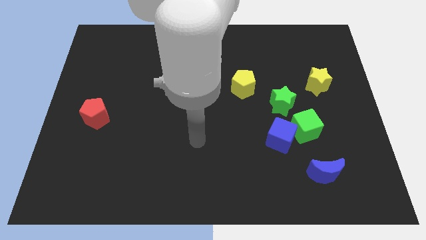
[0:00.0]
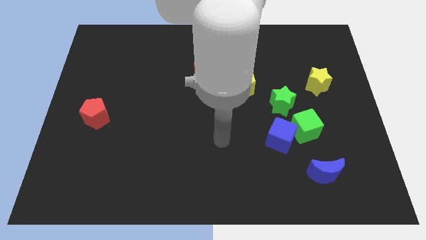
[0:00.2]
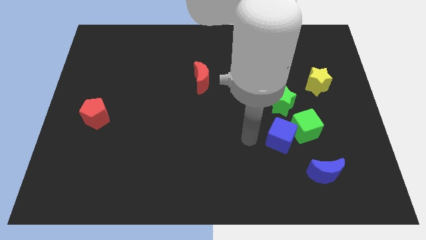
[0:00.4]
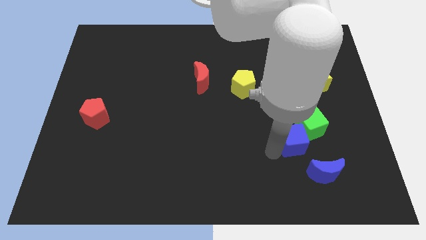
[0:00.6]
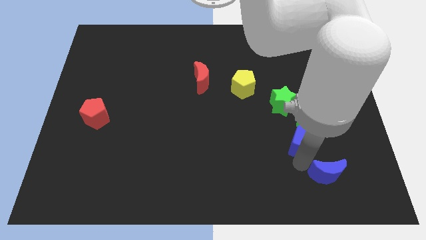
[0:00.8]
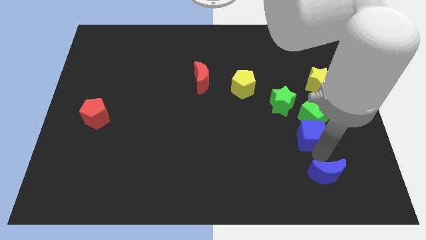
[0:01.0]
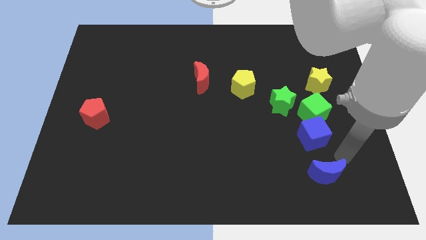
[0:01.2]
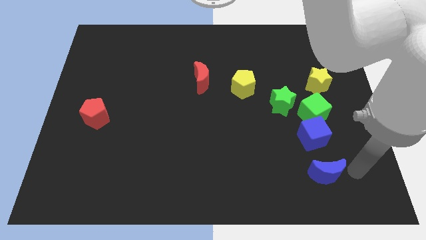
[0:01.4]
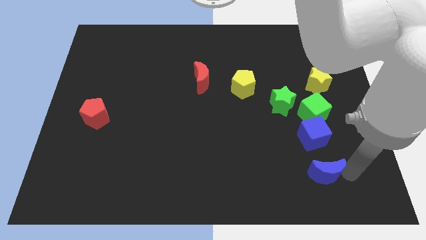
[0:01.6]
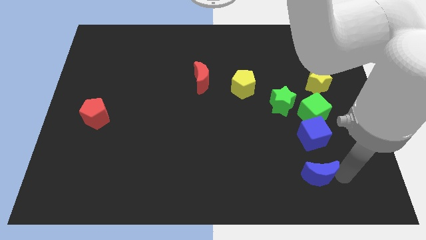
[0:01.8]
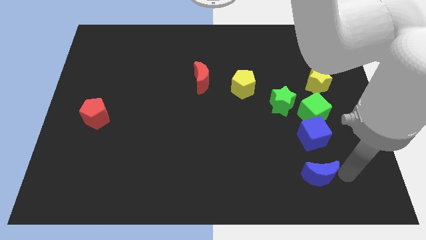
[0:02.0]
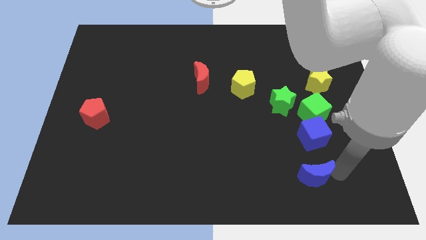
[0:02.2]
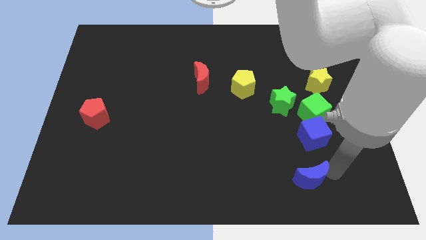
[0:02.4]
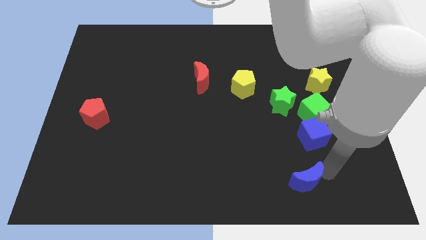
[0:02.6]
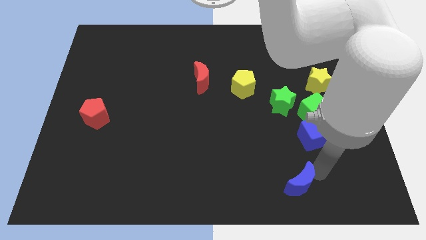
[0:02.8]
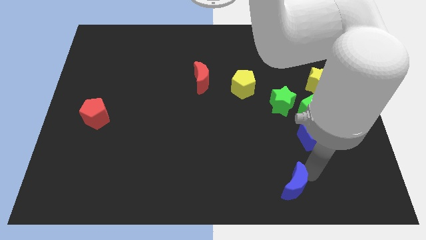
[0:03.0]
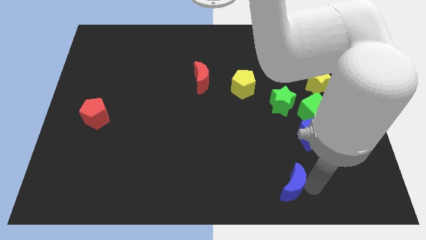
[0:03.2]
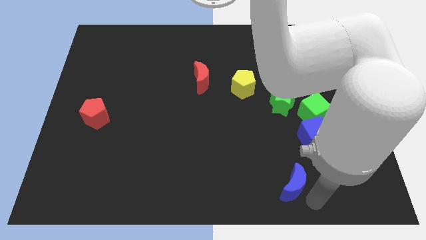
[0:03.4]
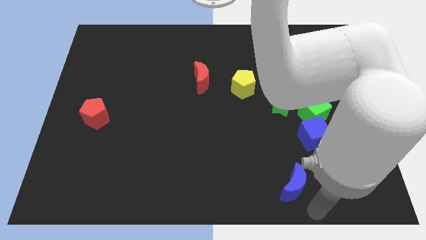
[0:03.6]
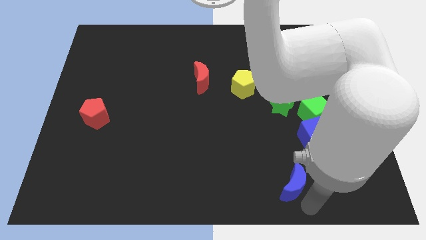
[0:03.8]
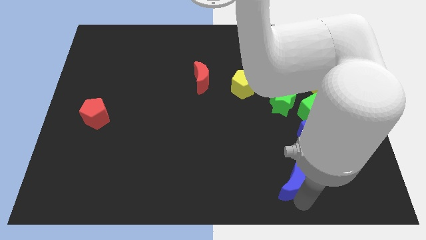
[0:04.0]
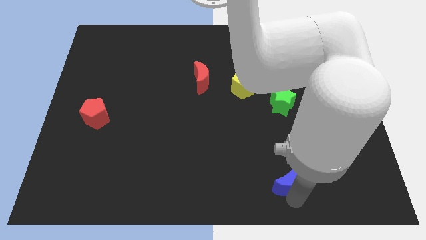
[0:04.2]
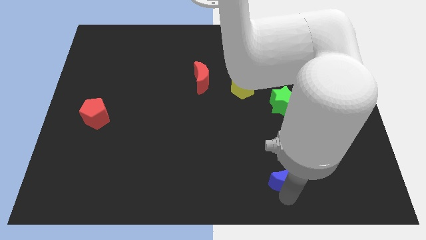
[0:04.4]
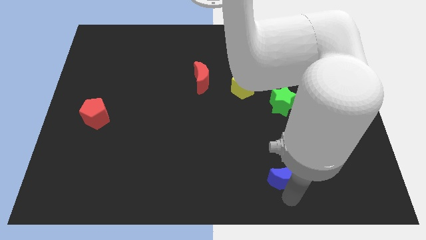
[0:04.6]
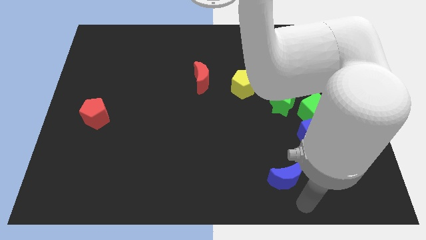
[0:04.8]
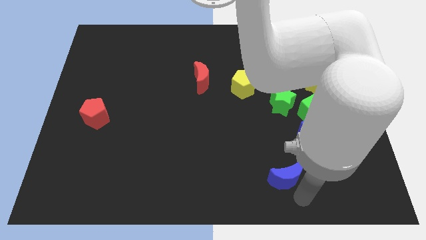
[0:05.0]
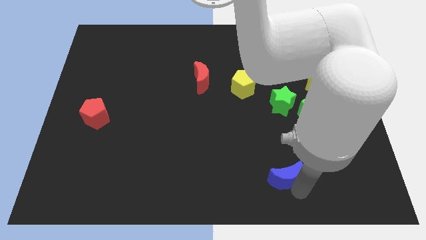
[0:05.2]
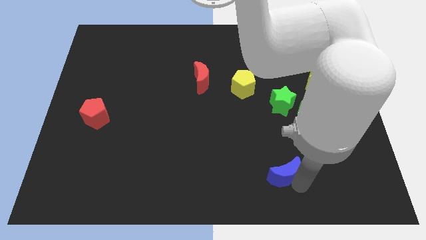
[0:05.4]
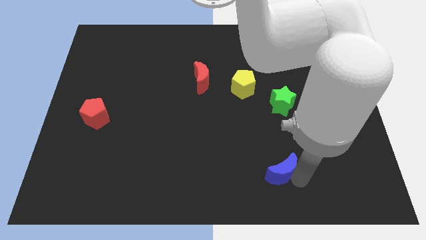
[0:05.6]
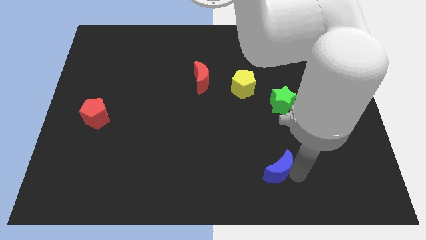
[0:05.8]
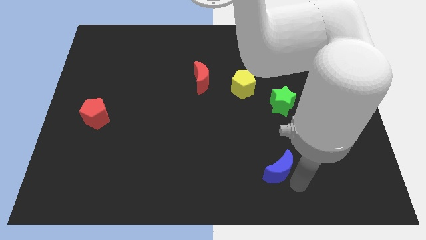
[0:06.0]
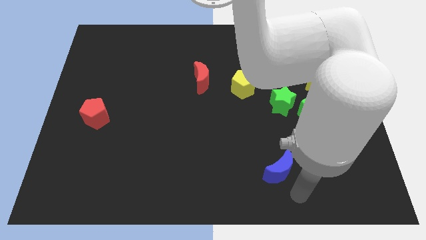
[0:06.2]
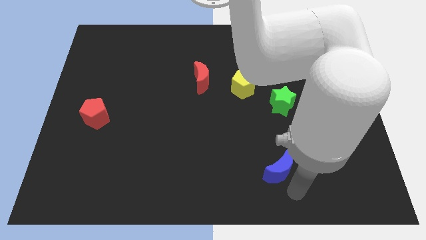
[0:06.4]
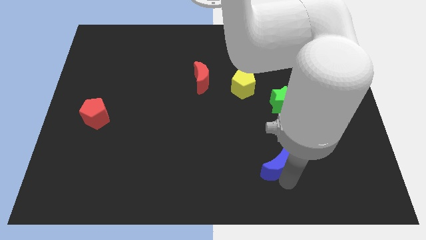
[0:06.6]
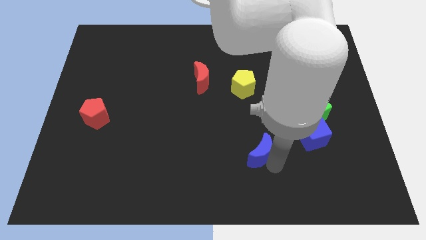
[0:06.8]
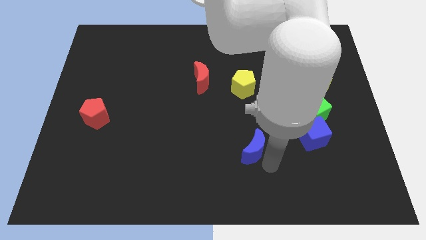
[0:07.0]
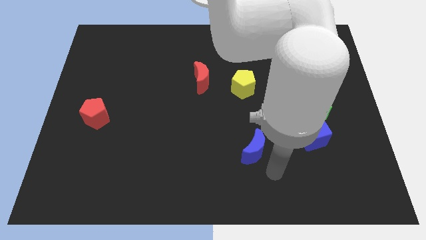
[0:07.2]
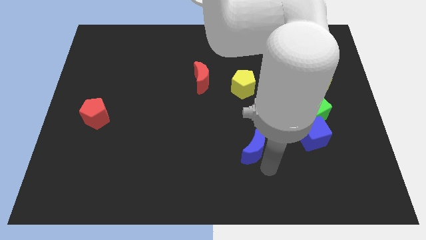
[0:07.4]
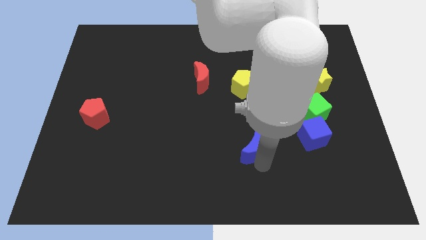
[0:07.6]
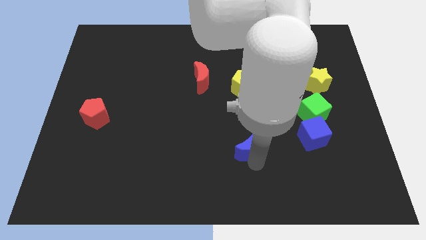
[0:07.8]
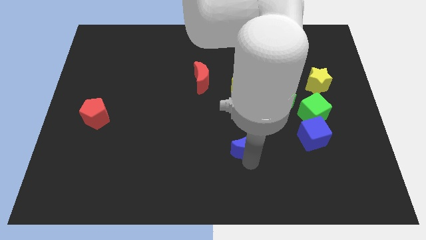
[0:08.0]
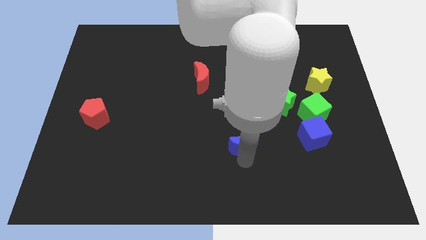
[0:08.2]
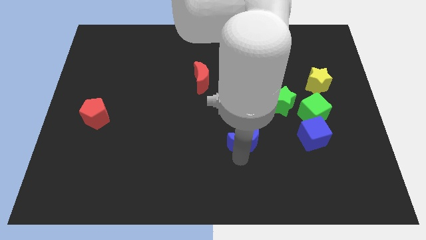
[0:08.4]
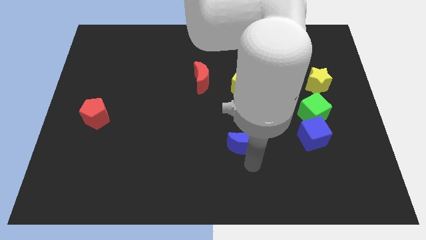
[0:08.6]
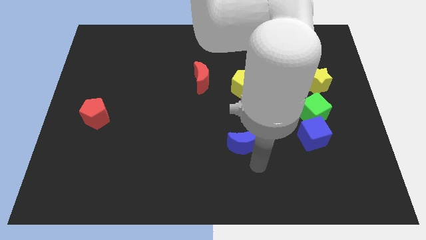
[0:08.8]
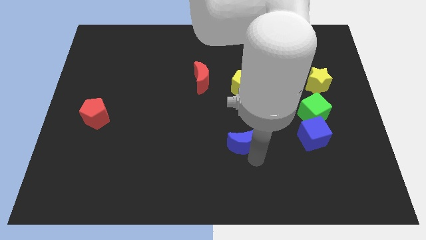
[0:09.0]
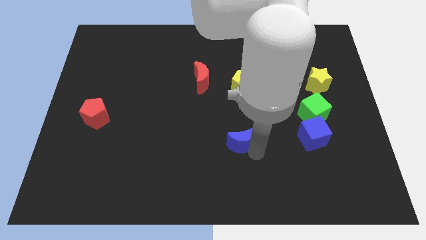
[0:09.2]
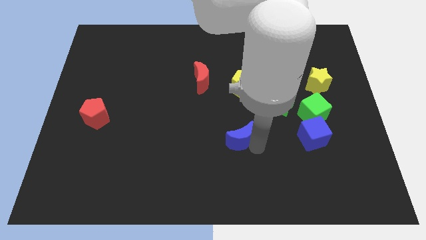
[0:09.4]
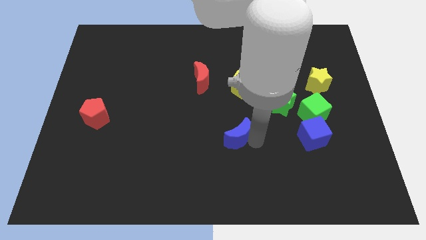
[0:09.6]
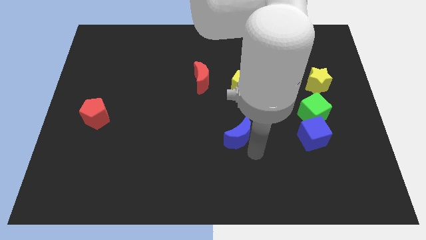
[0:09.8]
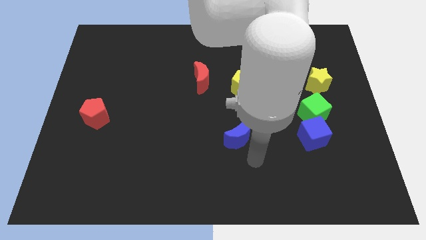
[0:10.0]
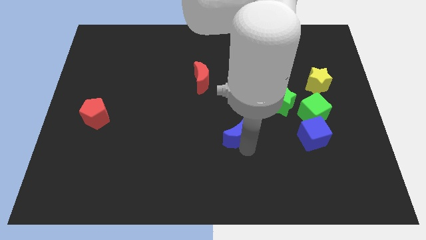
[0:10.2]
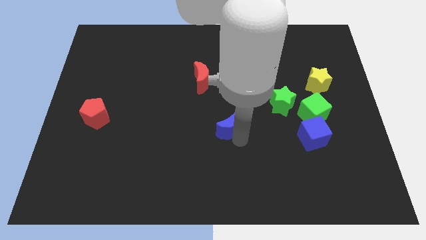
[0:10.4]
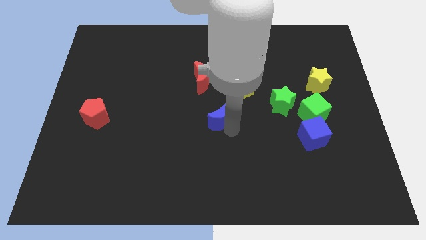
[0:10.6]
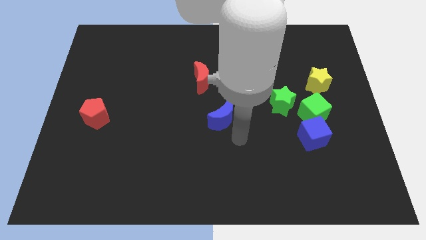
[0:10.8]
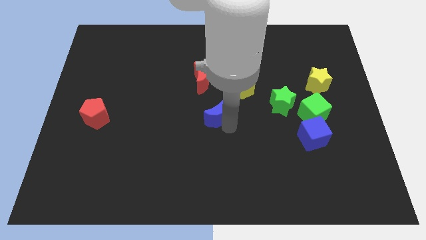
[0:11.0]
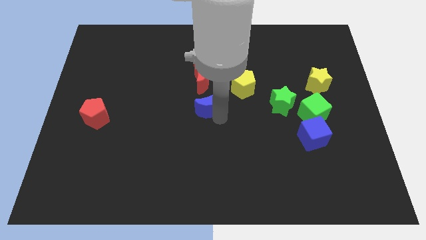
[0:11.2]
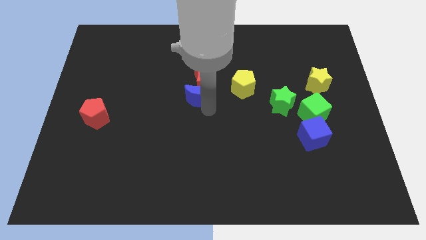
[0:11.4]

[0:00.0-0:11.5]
move the blue moon next to the red moon

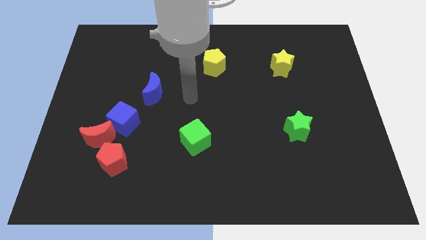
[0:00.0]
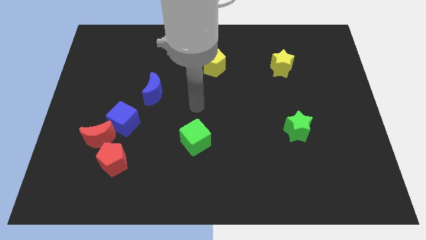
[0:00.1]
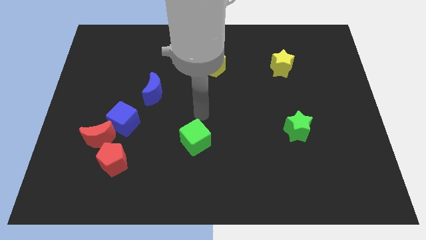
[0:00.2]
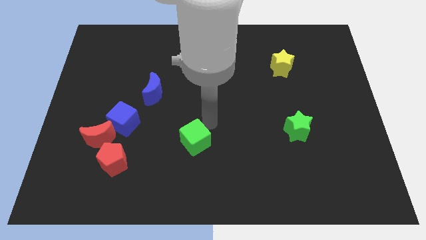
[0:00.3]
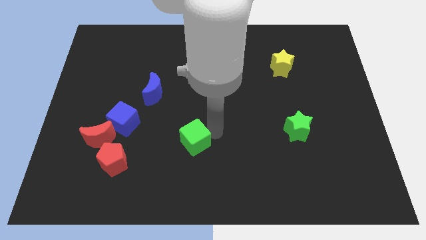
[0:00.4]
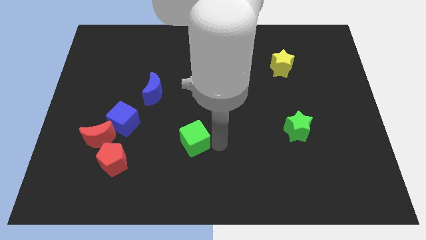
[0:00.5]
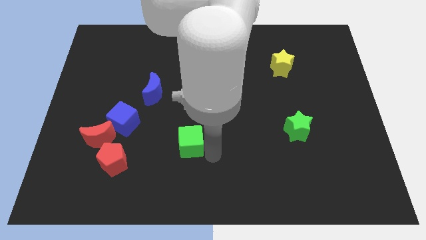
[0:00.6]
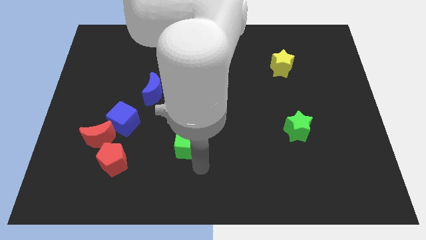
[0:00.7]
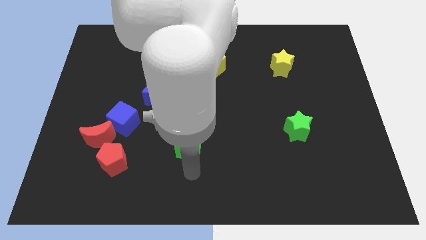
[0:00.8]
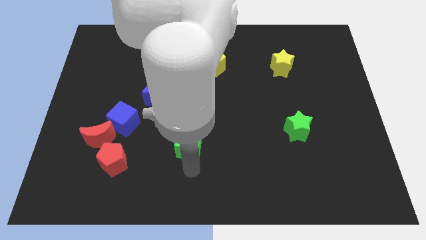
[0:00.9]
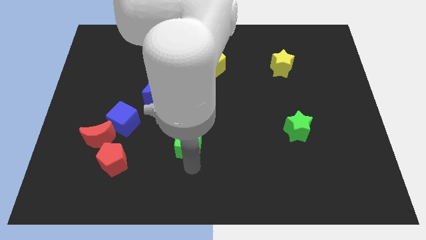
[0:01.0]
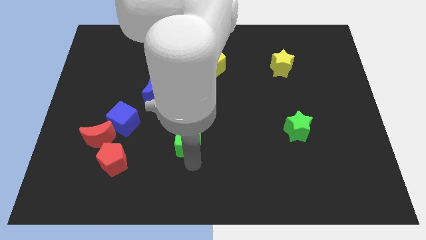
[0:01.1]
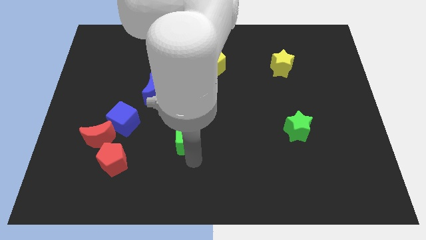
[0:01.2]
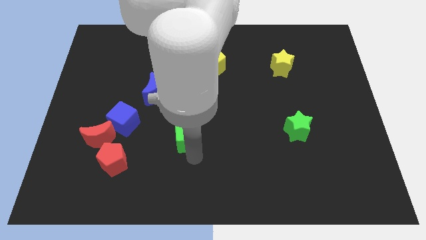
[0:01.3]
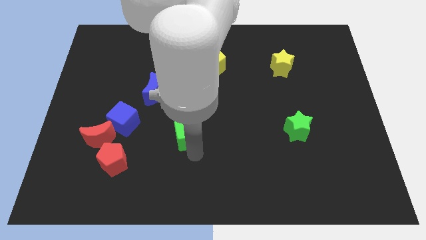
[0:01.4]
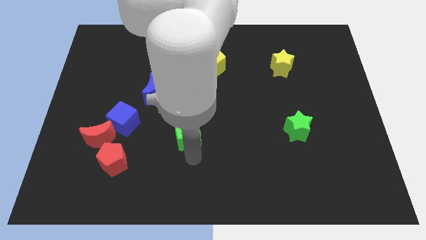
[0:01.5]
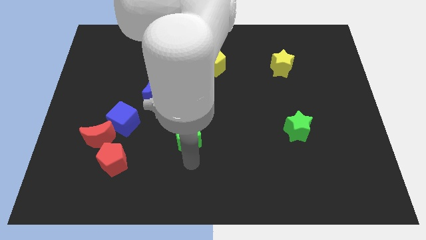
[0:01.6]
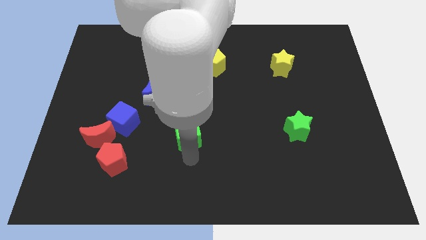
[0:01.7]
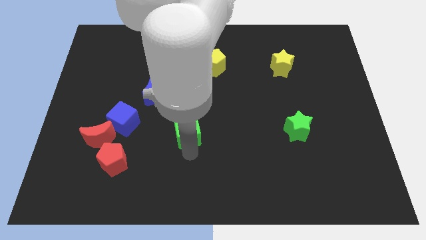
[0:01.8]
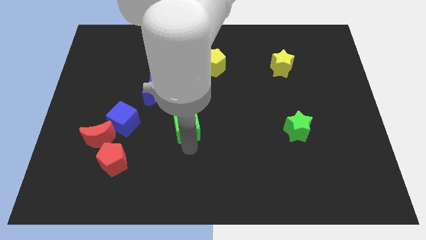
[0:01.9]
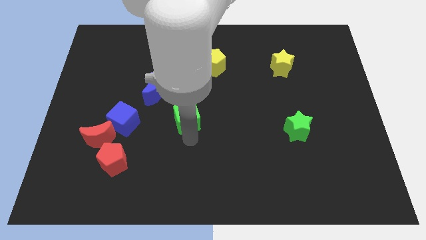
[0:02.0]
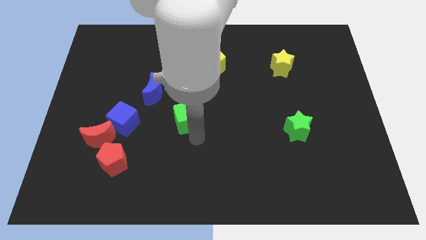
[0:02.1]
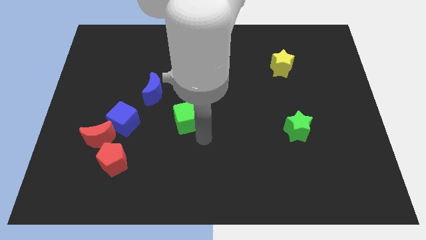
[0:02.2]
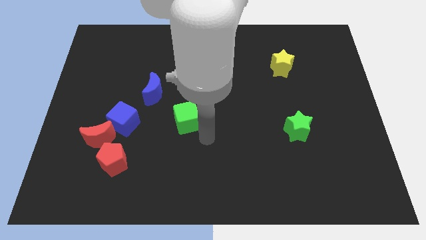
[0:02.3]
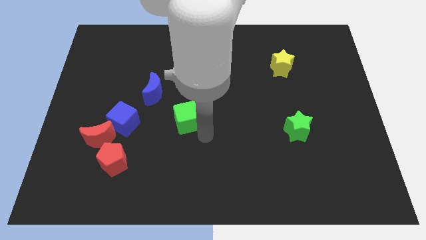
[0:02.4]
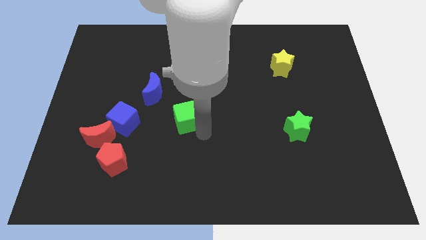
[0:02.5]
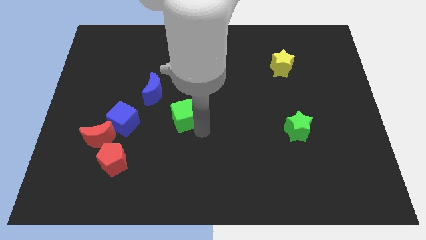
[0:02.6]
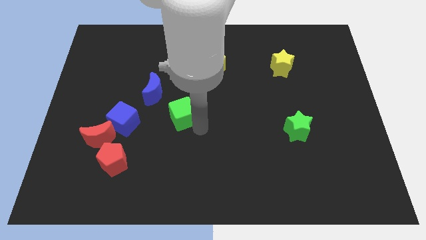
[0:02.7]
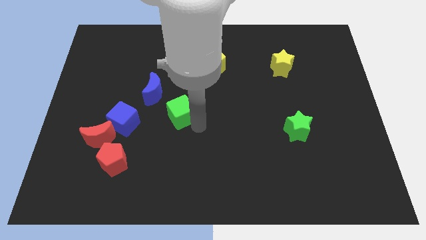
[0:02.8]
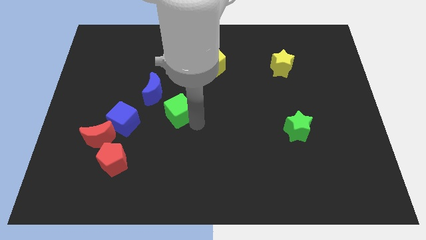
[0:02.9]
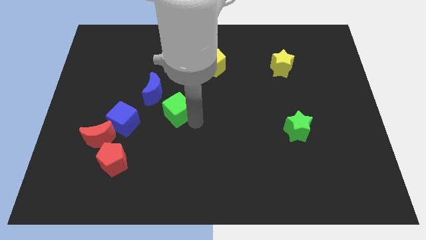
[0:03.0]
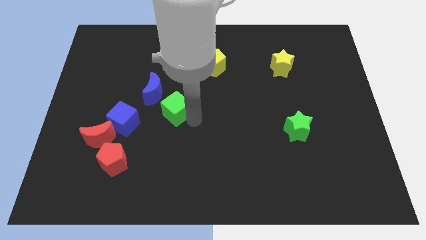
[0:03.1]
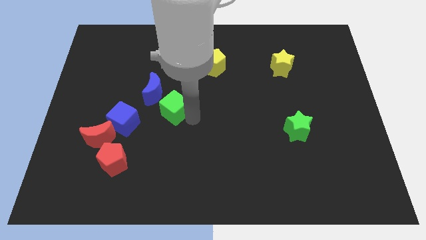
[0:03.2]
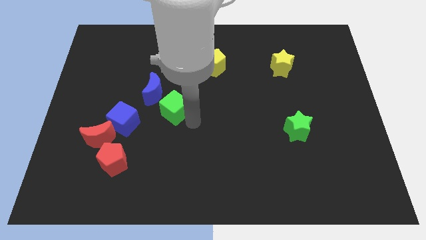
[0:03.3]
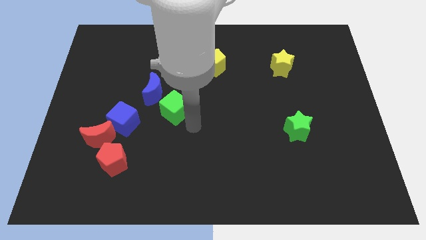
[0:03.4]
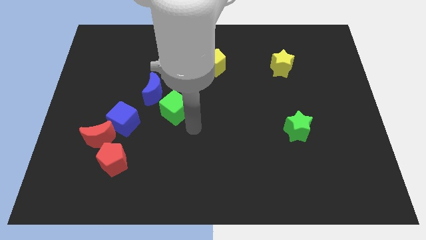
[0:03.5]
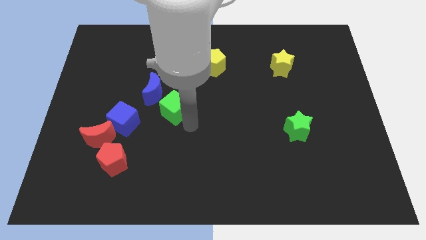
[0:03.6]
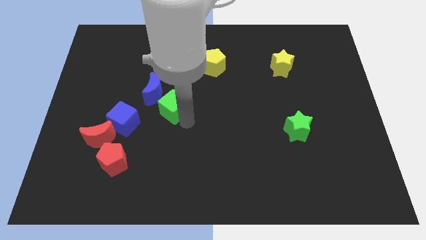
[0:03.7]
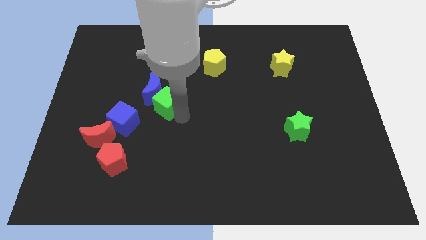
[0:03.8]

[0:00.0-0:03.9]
push the green cube to the blue moon
